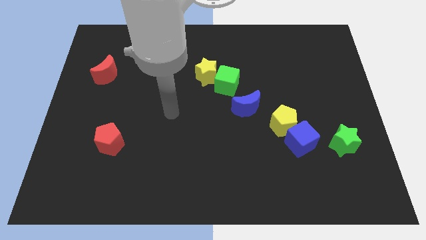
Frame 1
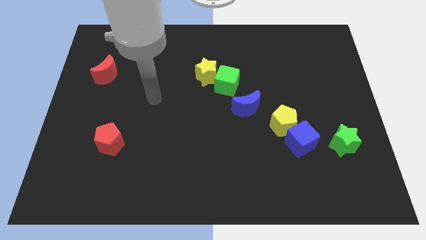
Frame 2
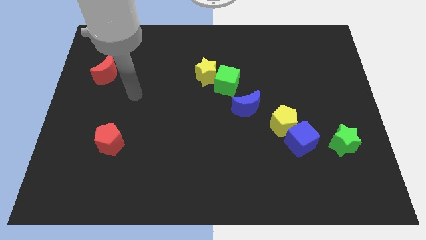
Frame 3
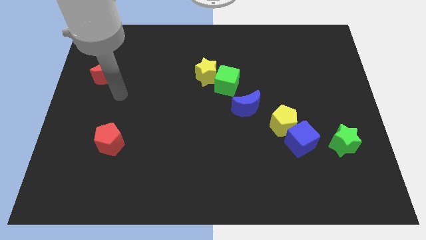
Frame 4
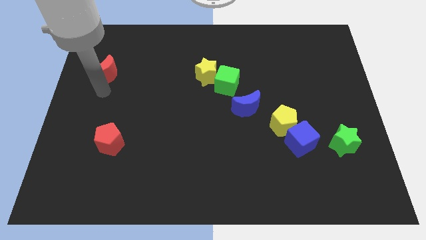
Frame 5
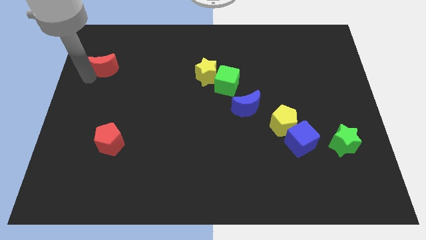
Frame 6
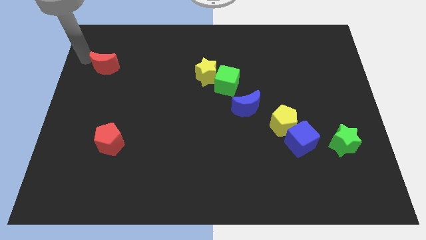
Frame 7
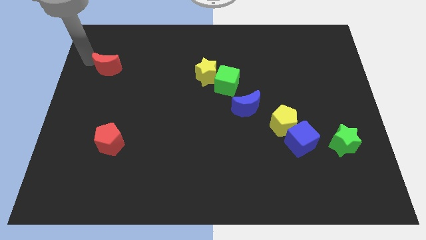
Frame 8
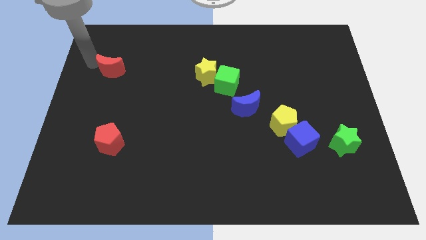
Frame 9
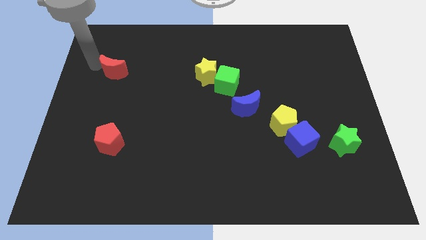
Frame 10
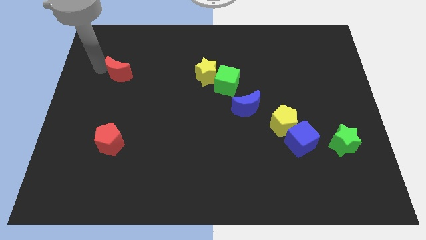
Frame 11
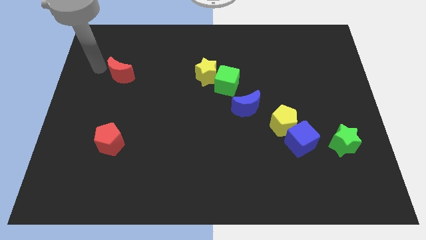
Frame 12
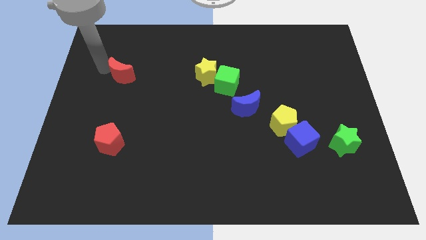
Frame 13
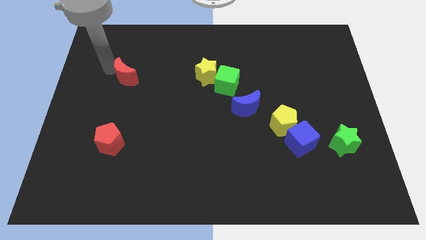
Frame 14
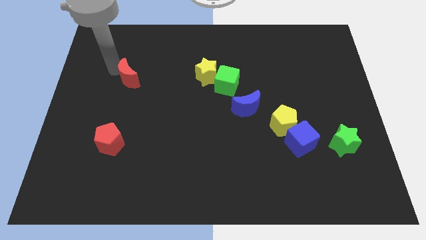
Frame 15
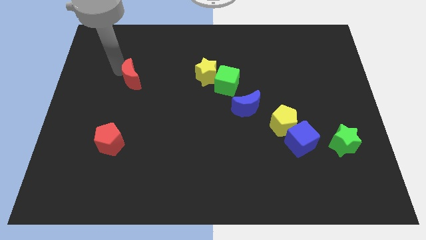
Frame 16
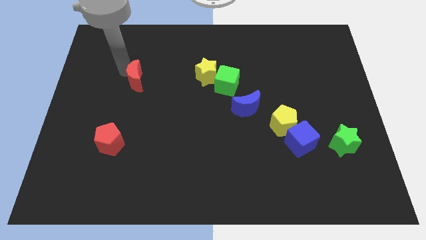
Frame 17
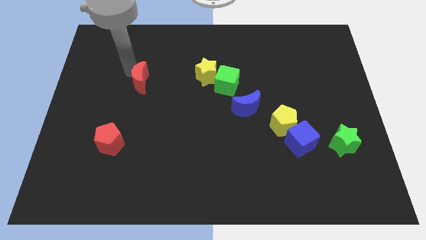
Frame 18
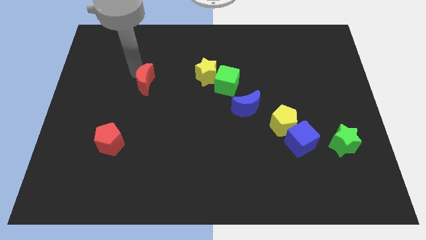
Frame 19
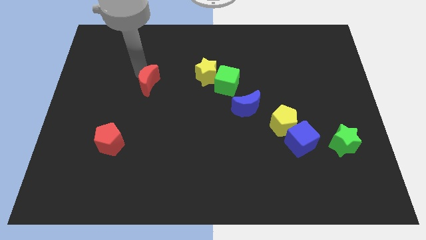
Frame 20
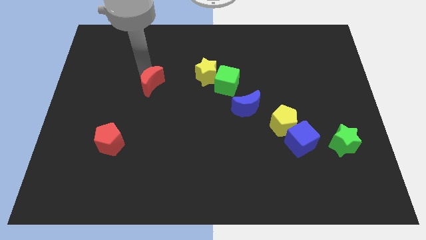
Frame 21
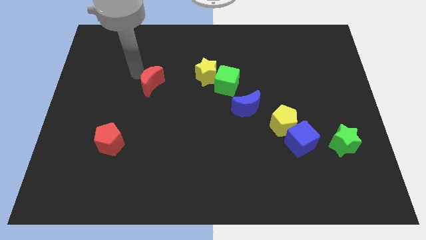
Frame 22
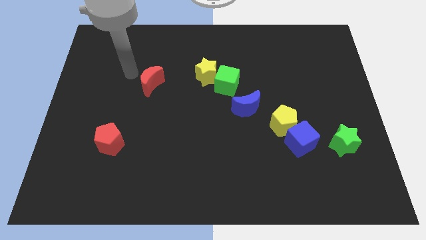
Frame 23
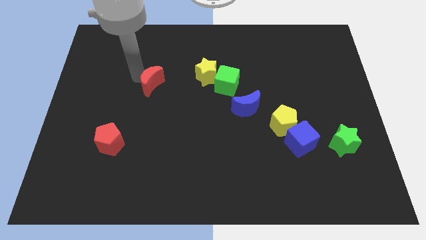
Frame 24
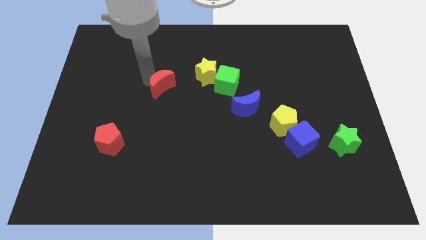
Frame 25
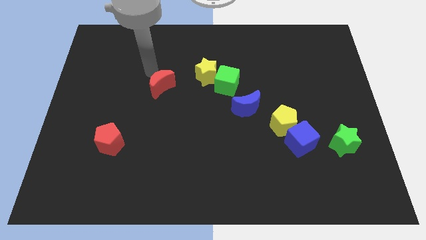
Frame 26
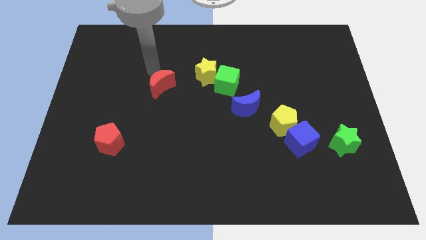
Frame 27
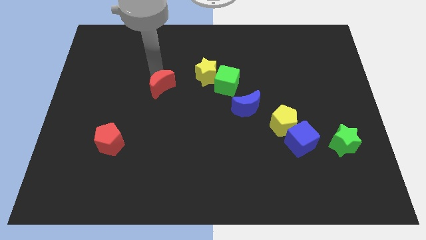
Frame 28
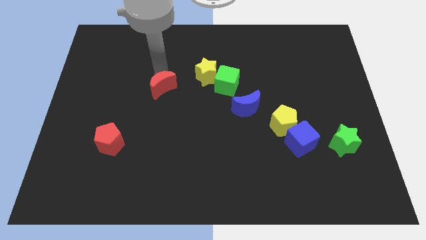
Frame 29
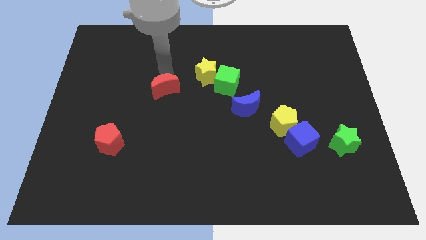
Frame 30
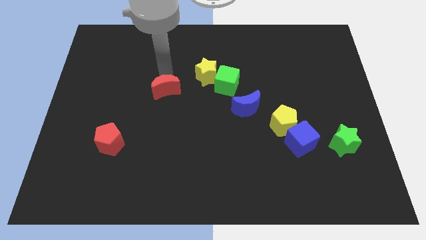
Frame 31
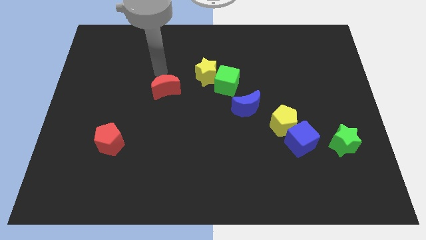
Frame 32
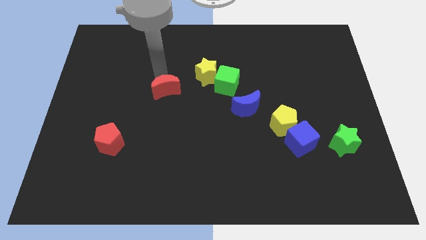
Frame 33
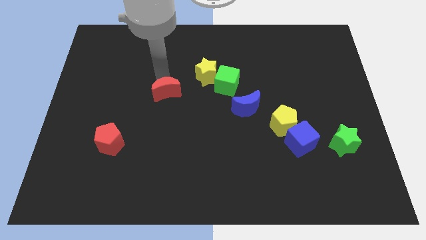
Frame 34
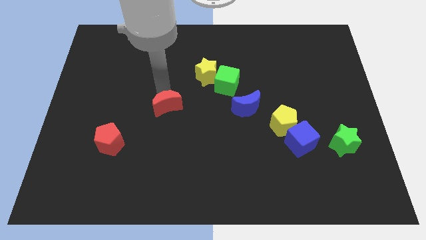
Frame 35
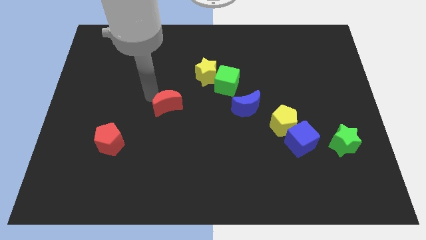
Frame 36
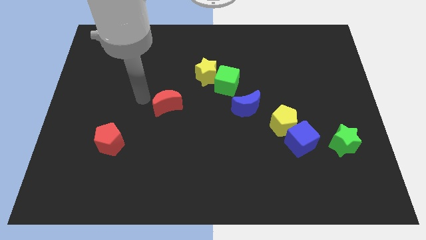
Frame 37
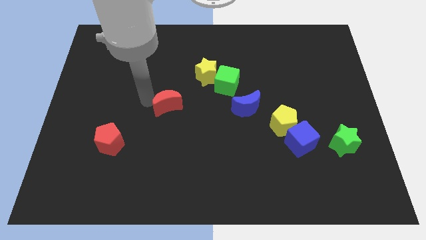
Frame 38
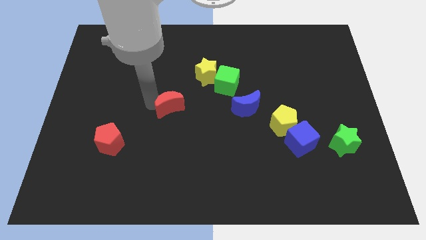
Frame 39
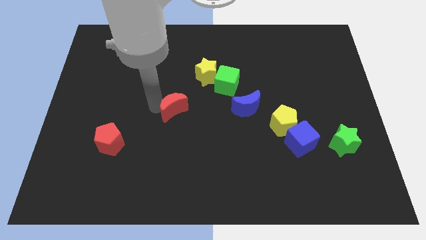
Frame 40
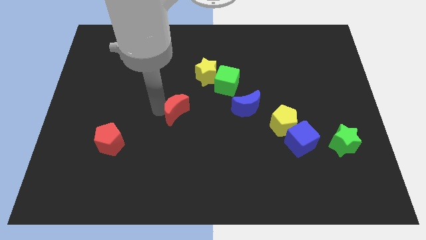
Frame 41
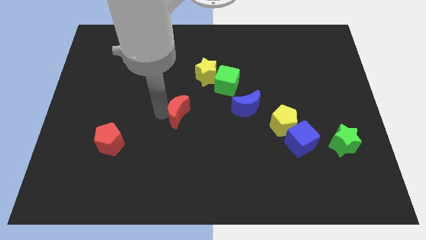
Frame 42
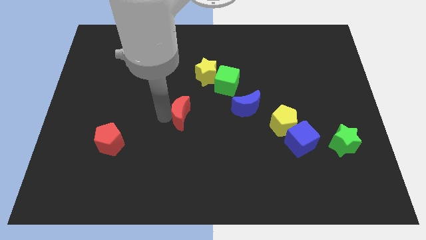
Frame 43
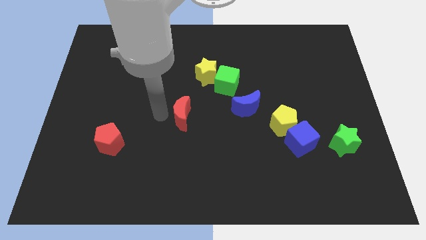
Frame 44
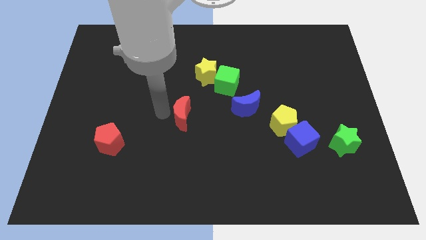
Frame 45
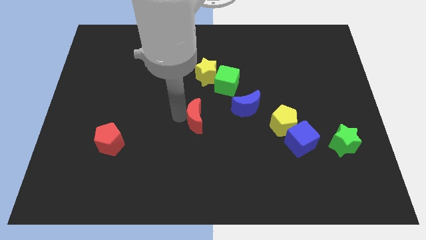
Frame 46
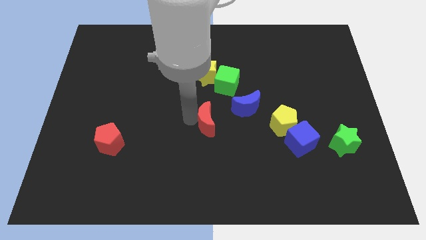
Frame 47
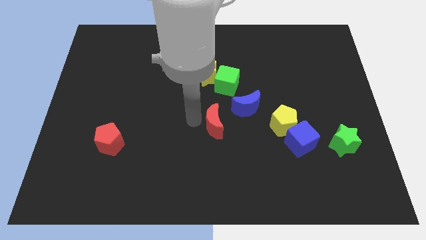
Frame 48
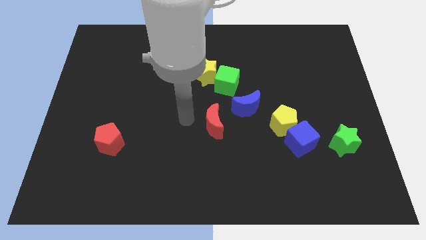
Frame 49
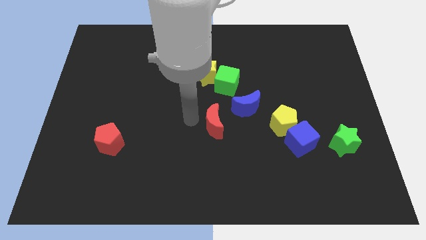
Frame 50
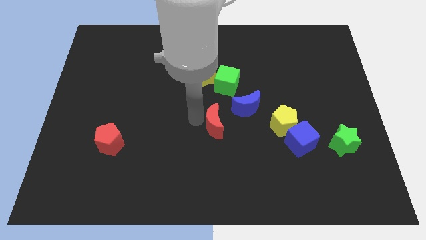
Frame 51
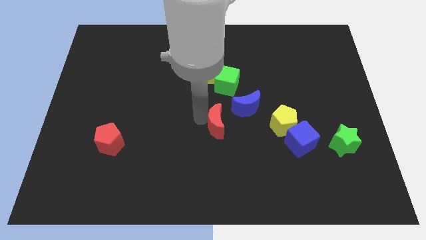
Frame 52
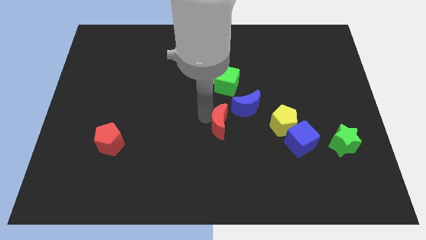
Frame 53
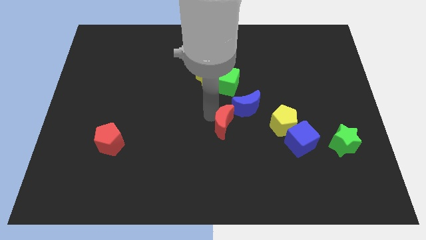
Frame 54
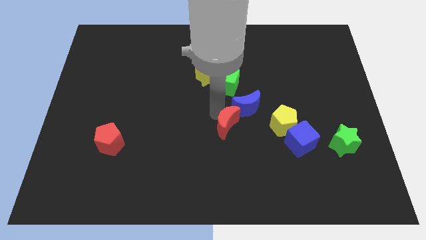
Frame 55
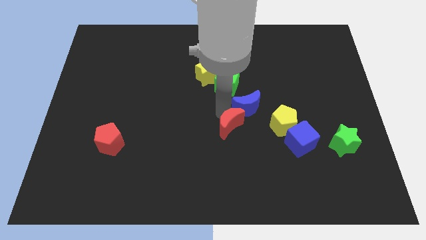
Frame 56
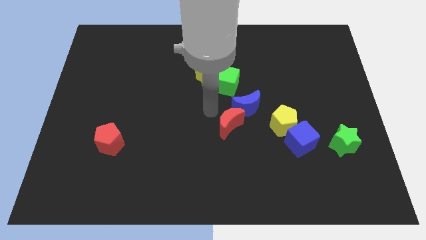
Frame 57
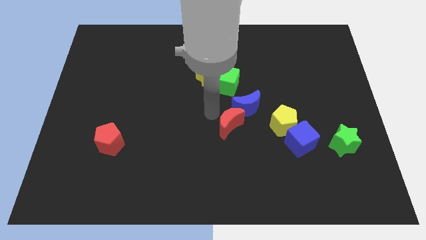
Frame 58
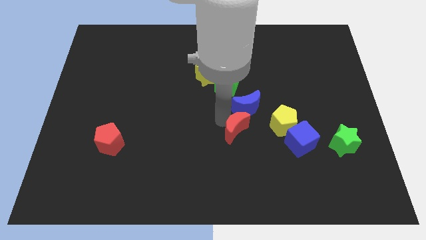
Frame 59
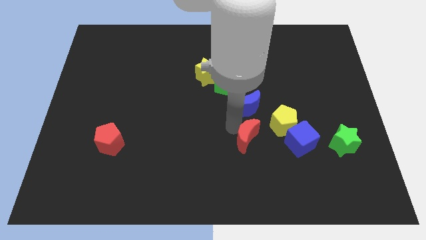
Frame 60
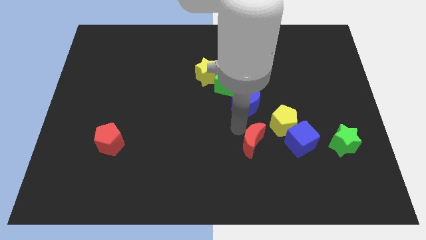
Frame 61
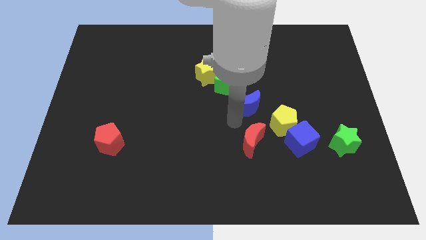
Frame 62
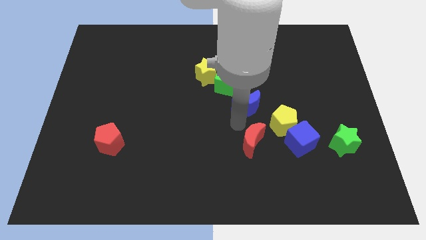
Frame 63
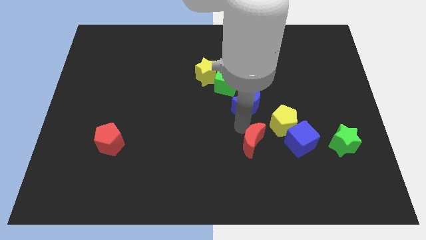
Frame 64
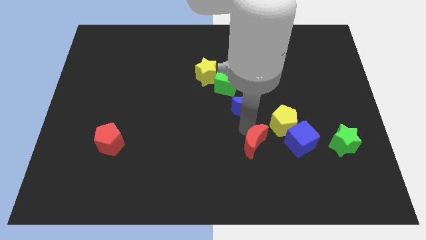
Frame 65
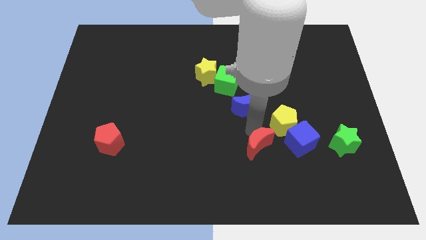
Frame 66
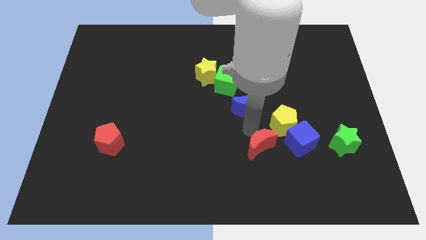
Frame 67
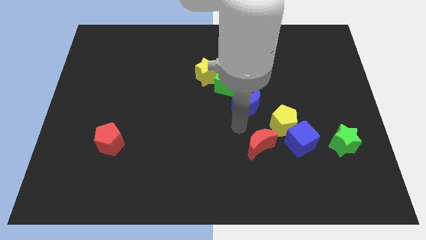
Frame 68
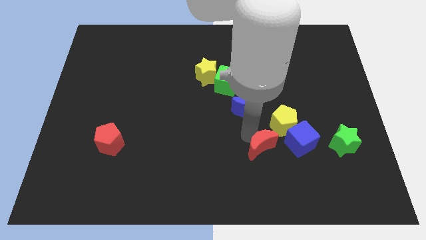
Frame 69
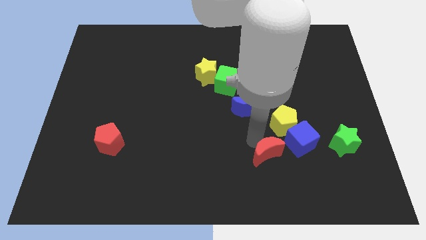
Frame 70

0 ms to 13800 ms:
slide the red moon to the bottom left side of the blue cube
